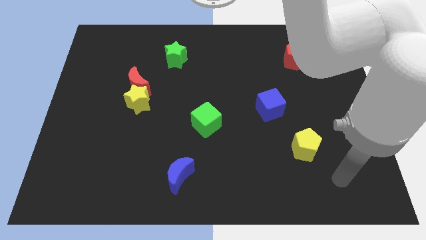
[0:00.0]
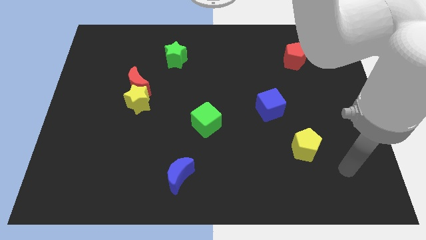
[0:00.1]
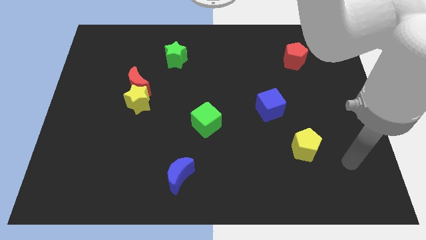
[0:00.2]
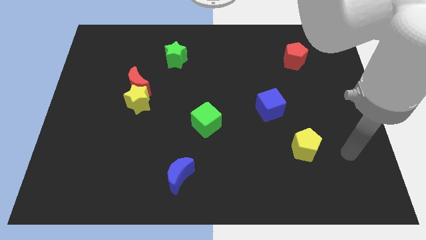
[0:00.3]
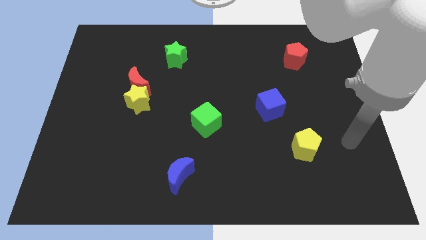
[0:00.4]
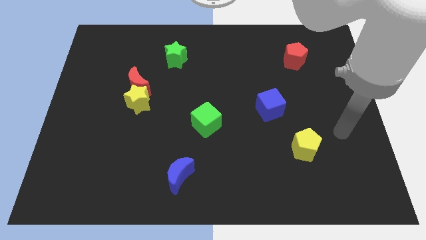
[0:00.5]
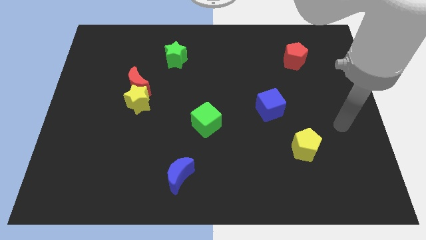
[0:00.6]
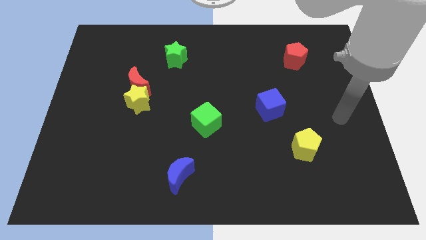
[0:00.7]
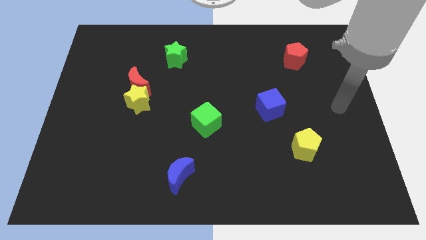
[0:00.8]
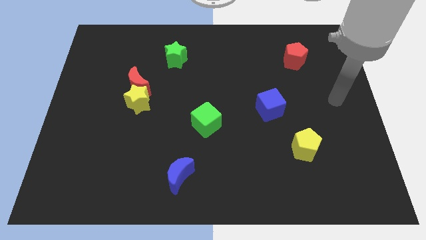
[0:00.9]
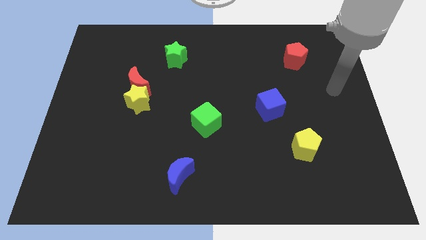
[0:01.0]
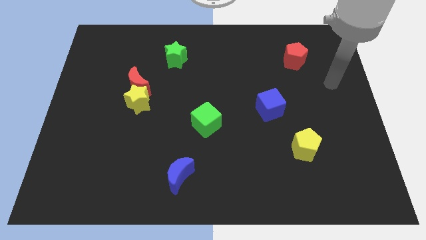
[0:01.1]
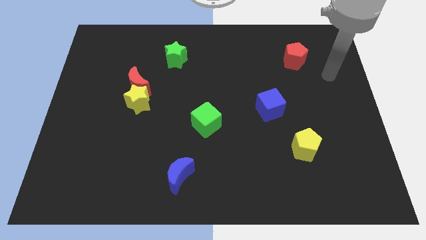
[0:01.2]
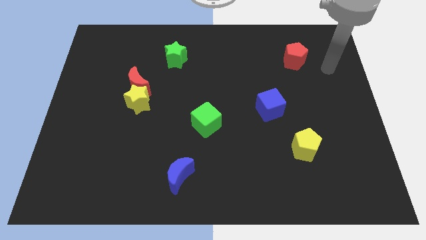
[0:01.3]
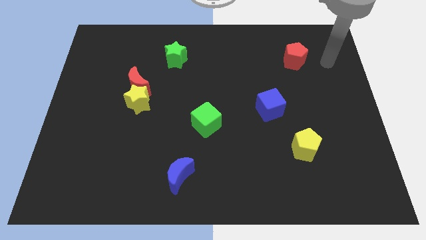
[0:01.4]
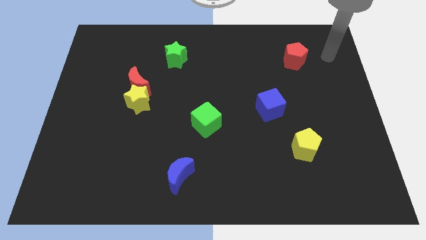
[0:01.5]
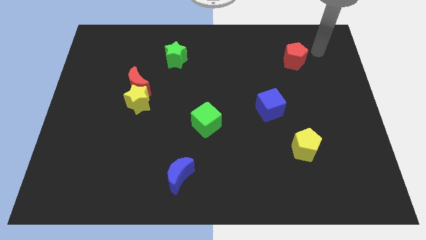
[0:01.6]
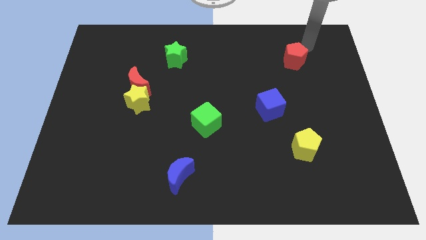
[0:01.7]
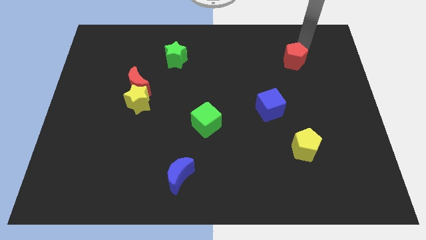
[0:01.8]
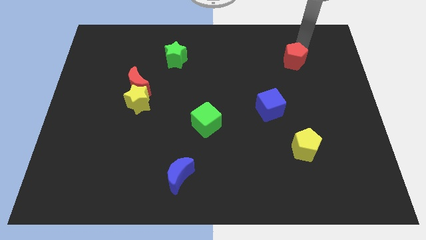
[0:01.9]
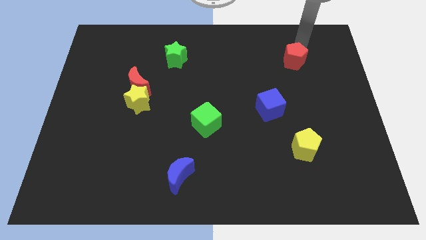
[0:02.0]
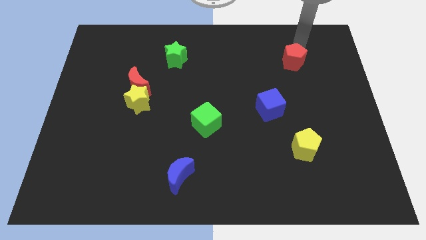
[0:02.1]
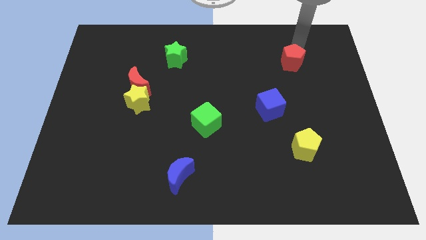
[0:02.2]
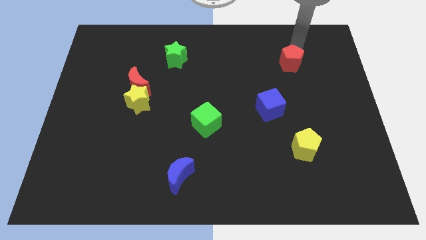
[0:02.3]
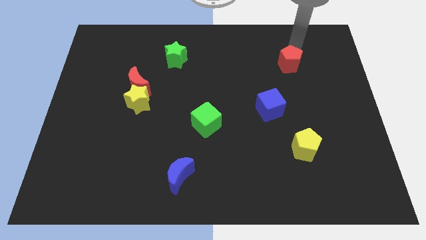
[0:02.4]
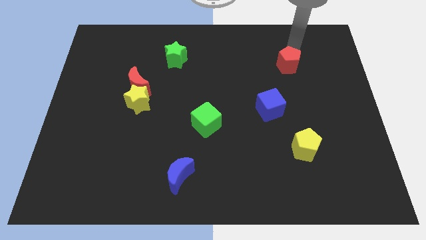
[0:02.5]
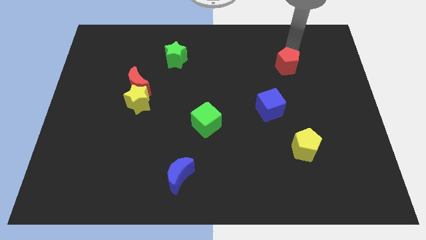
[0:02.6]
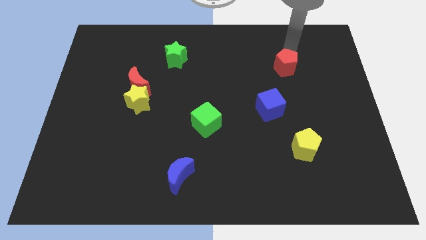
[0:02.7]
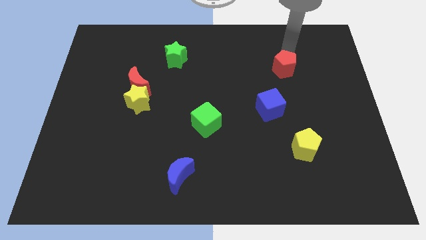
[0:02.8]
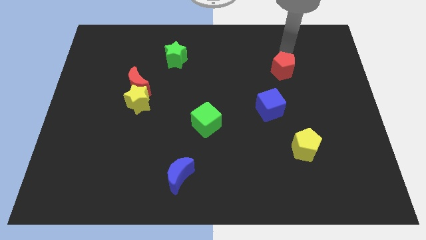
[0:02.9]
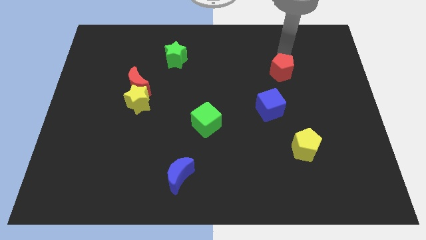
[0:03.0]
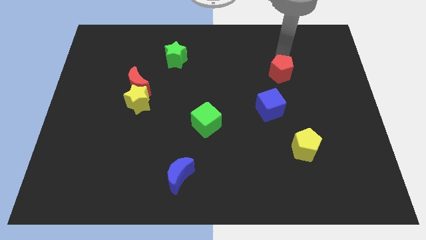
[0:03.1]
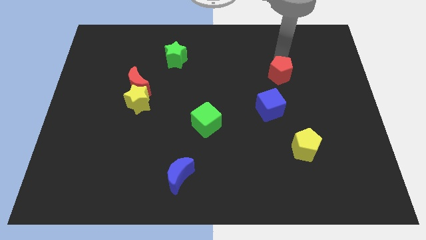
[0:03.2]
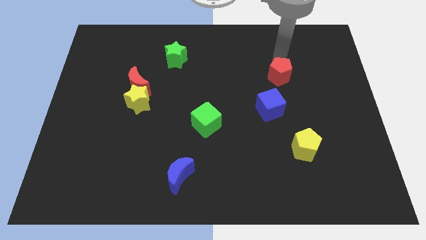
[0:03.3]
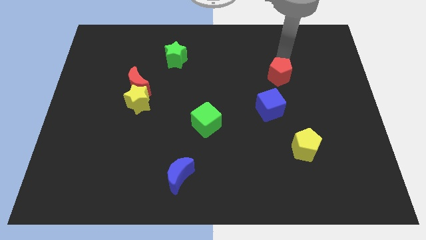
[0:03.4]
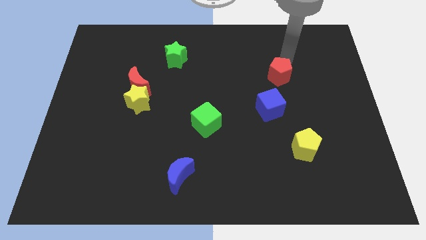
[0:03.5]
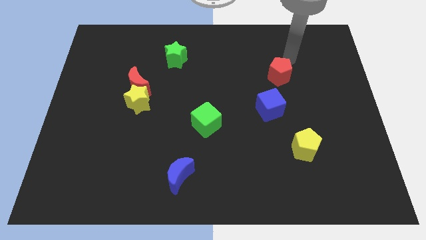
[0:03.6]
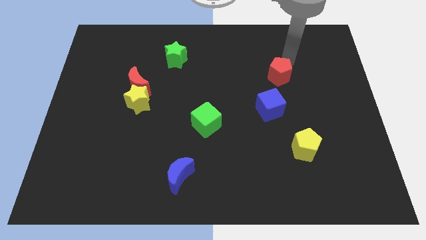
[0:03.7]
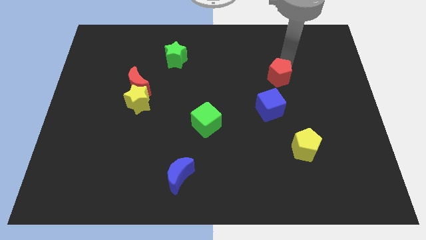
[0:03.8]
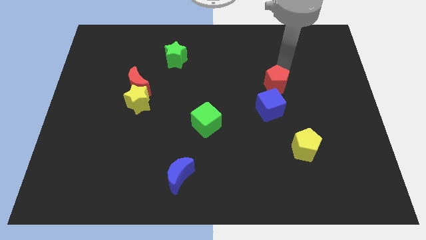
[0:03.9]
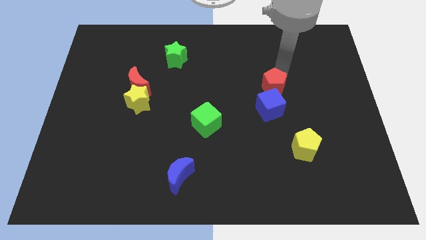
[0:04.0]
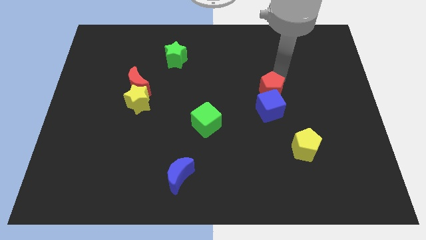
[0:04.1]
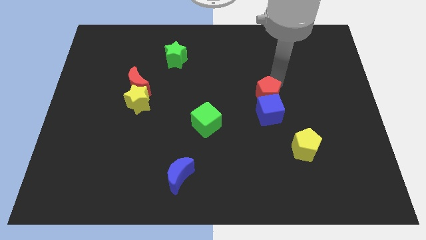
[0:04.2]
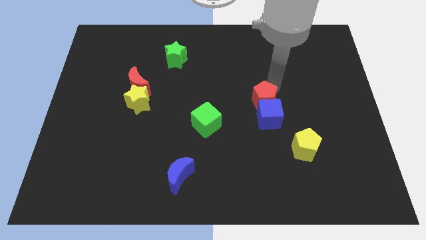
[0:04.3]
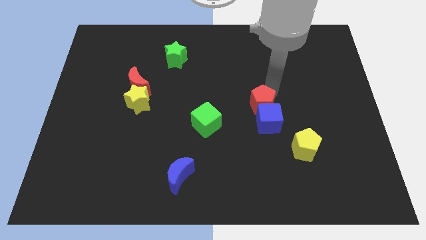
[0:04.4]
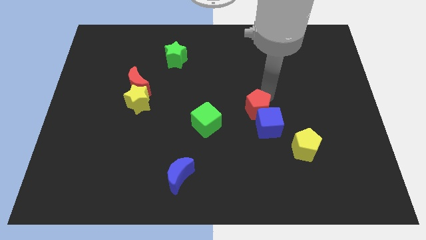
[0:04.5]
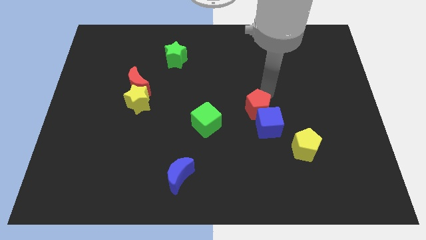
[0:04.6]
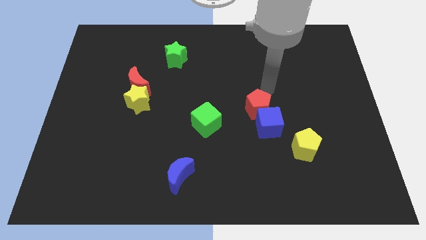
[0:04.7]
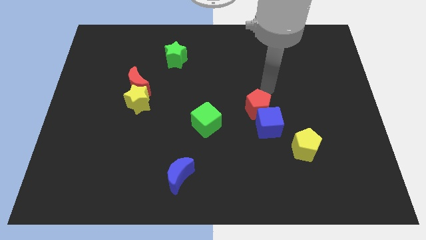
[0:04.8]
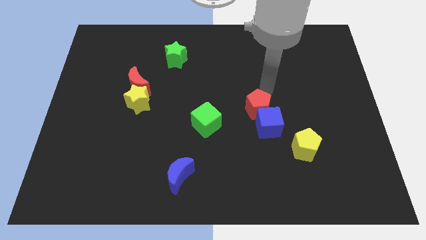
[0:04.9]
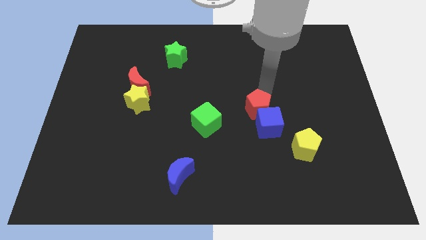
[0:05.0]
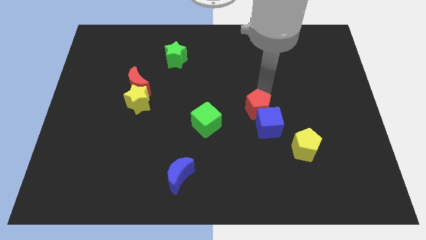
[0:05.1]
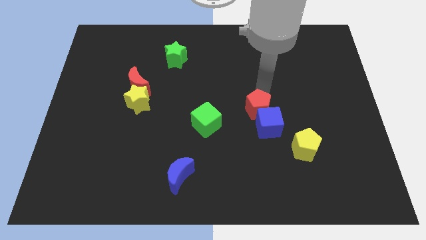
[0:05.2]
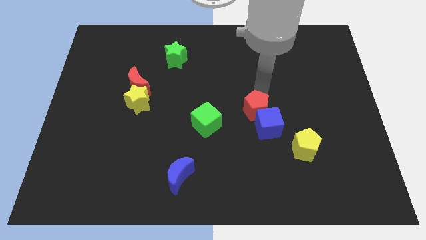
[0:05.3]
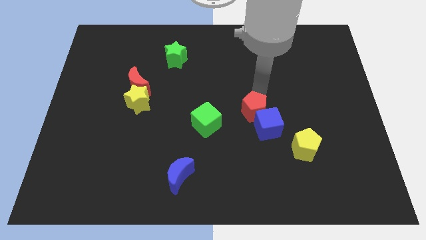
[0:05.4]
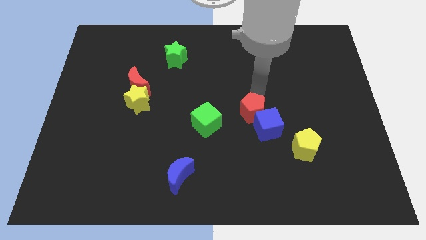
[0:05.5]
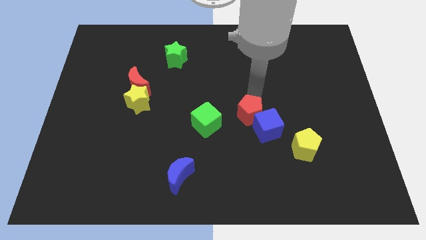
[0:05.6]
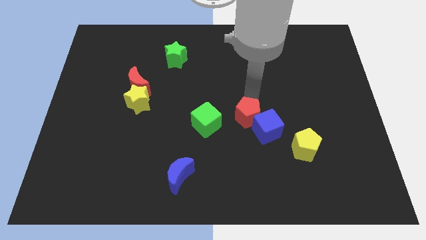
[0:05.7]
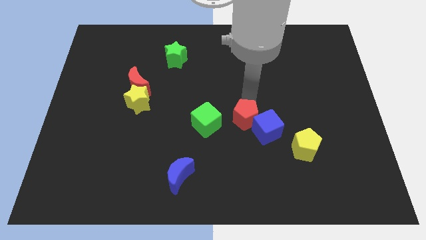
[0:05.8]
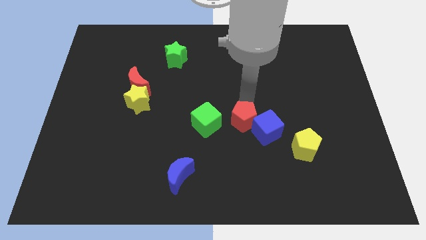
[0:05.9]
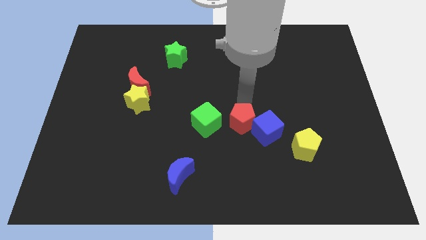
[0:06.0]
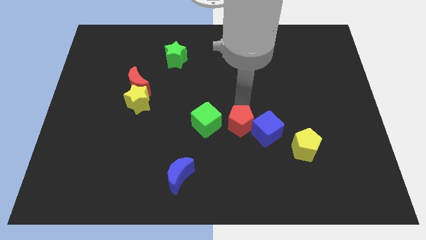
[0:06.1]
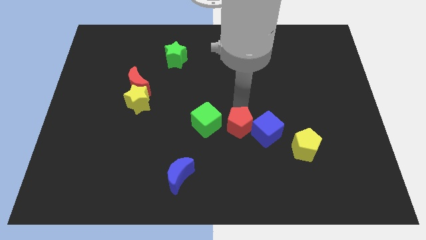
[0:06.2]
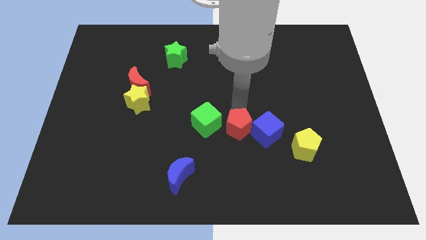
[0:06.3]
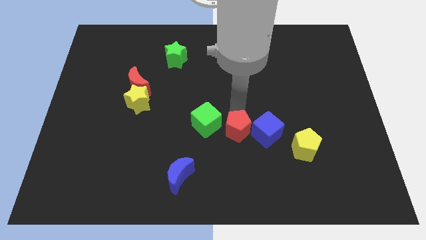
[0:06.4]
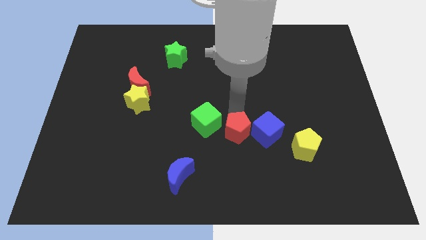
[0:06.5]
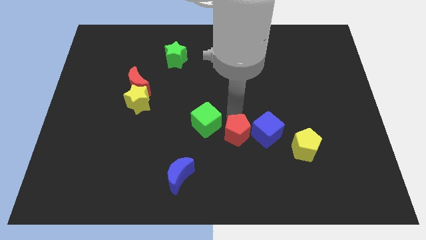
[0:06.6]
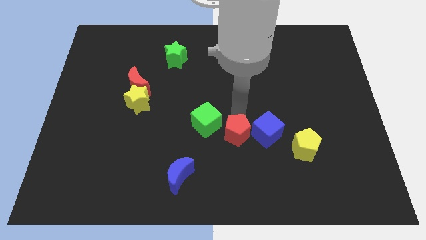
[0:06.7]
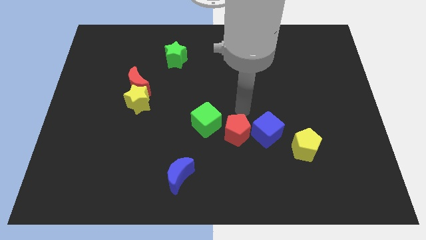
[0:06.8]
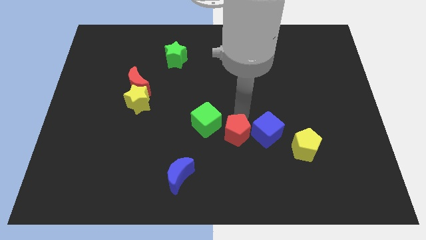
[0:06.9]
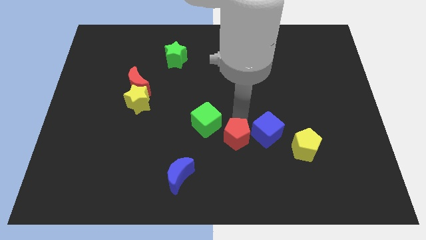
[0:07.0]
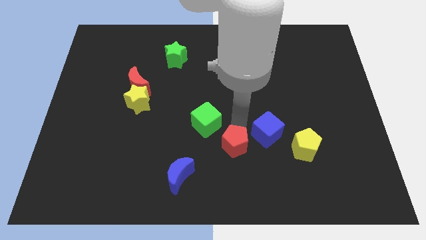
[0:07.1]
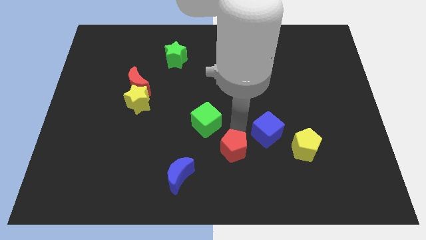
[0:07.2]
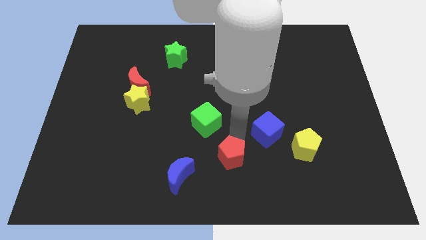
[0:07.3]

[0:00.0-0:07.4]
slide the red pentagon to the bottom
